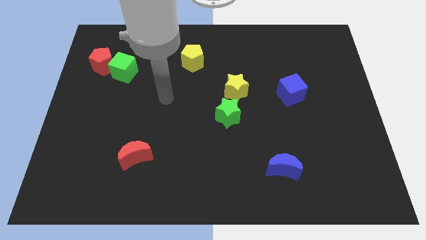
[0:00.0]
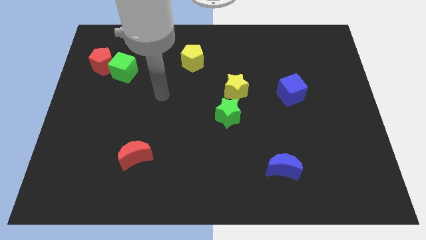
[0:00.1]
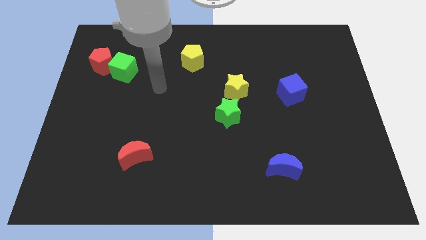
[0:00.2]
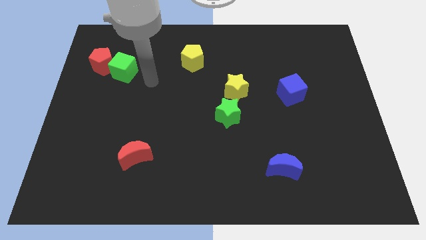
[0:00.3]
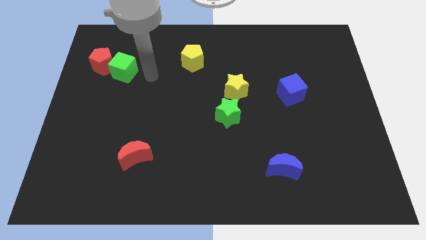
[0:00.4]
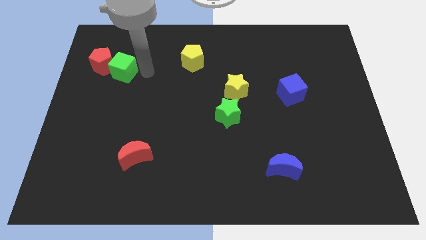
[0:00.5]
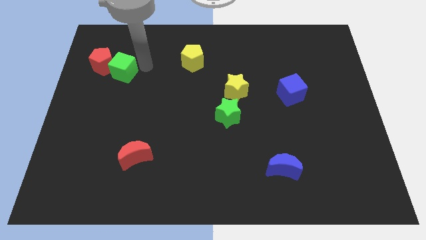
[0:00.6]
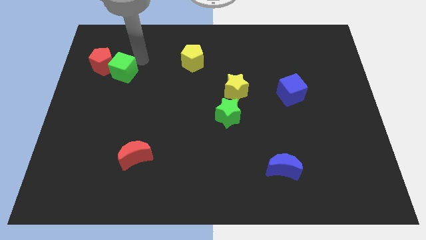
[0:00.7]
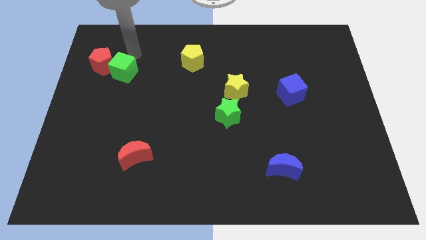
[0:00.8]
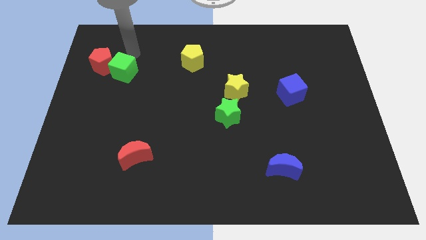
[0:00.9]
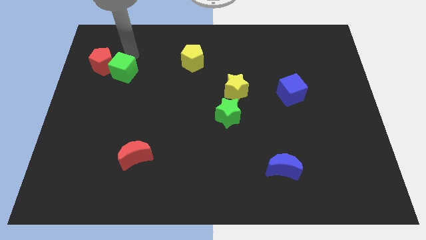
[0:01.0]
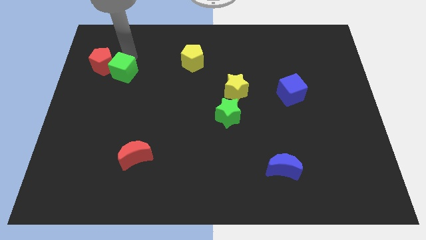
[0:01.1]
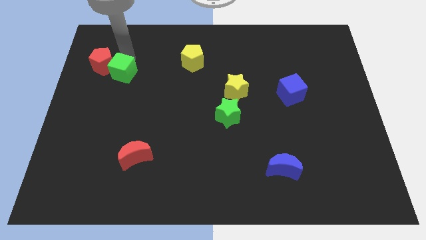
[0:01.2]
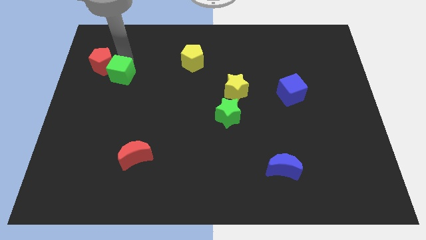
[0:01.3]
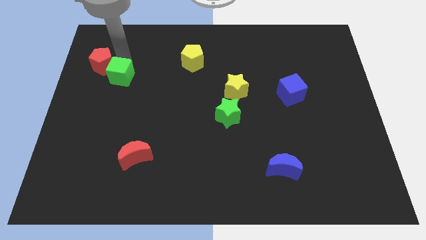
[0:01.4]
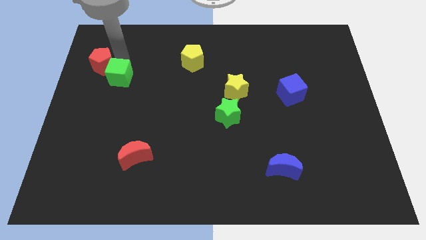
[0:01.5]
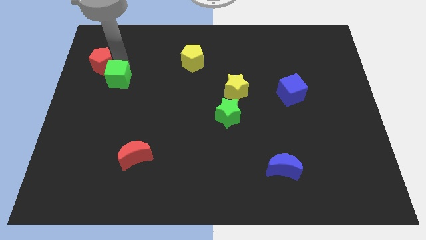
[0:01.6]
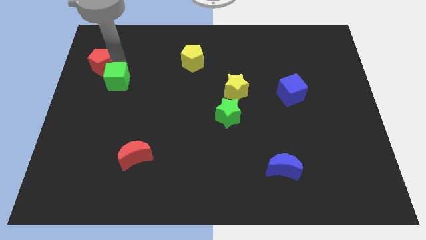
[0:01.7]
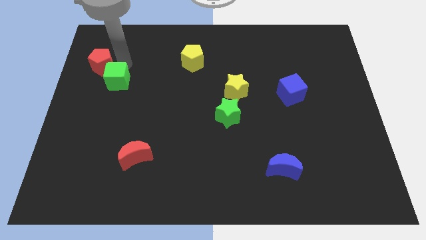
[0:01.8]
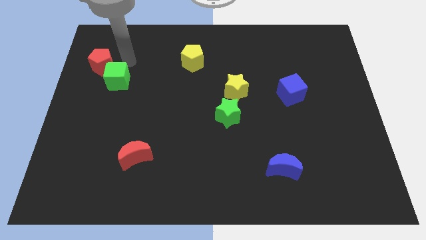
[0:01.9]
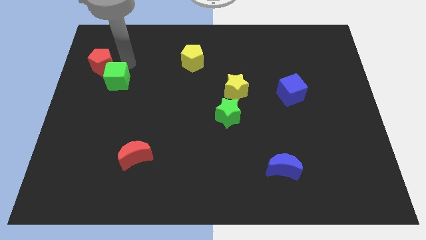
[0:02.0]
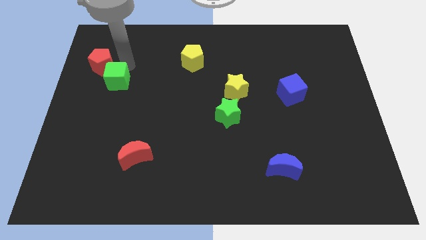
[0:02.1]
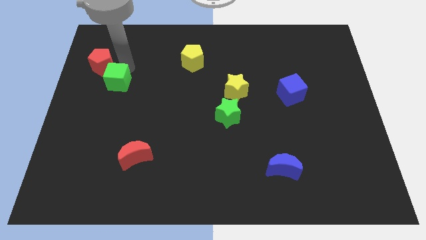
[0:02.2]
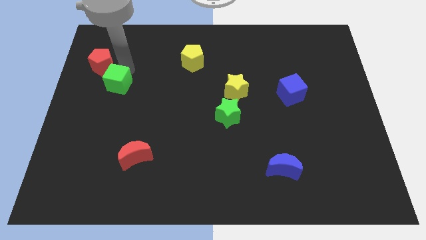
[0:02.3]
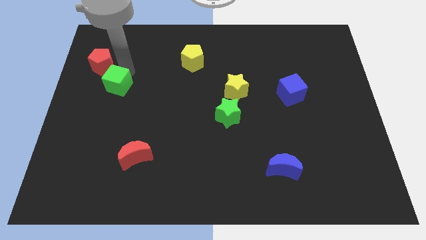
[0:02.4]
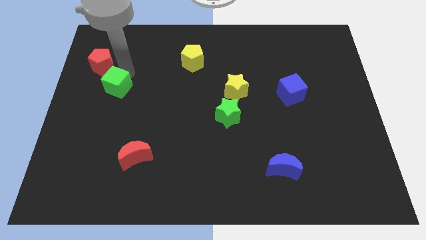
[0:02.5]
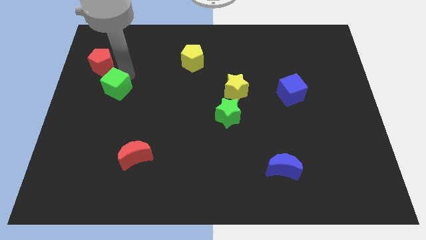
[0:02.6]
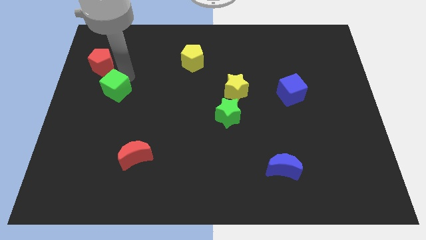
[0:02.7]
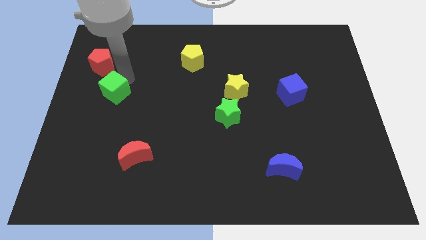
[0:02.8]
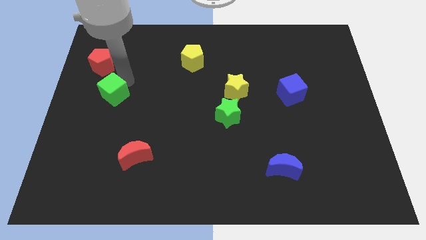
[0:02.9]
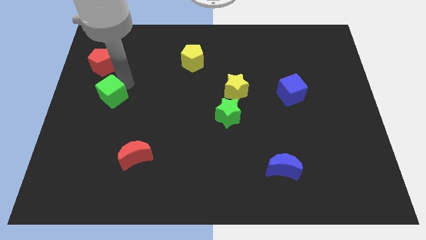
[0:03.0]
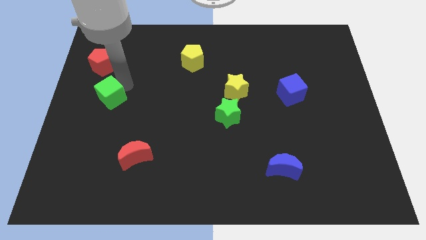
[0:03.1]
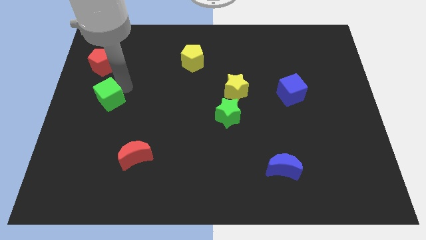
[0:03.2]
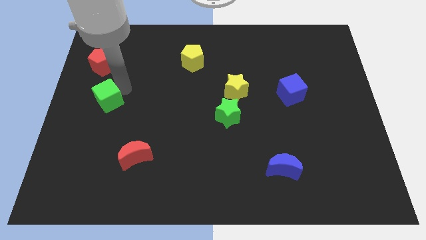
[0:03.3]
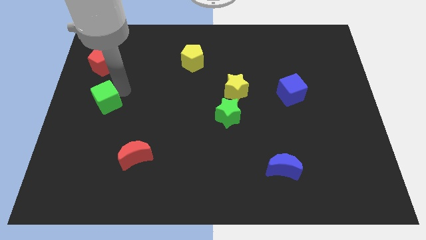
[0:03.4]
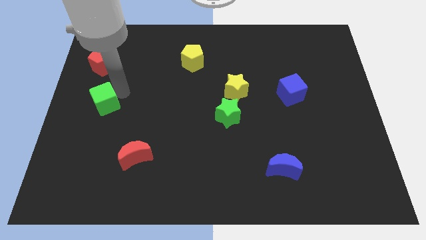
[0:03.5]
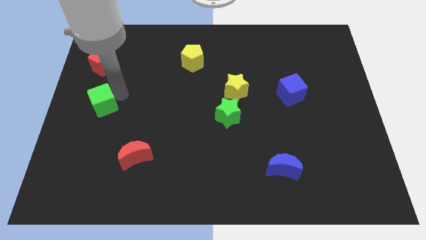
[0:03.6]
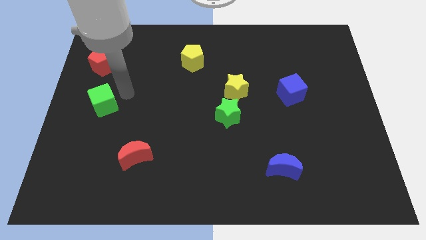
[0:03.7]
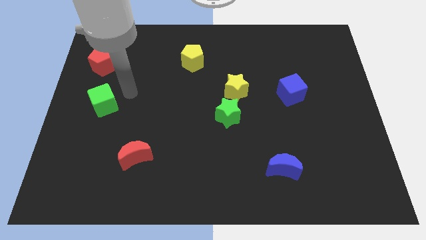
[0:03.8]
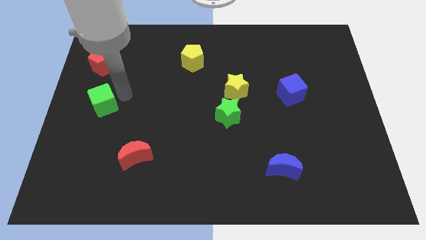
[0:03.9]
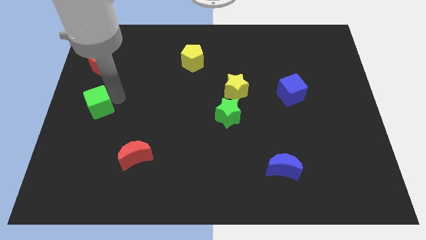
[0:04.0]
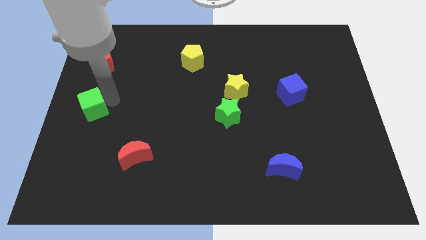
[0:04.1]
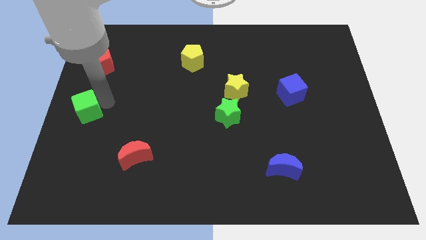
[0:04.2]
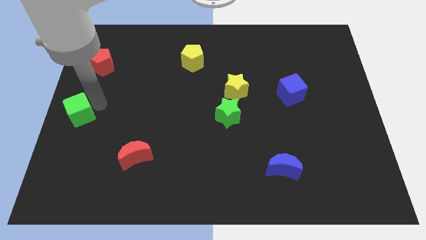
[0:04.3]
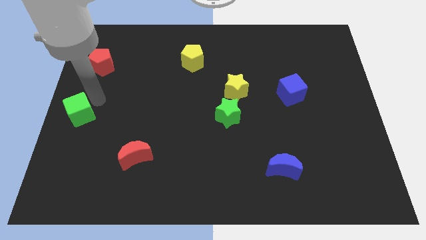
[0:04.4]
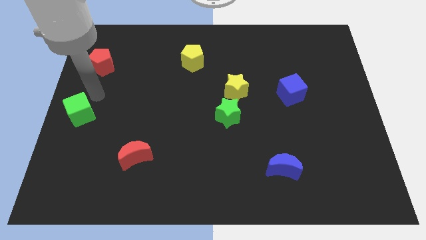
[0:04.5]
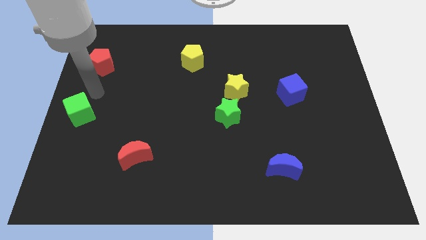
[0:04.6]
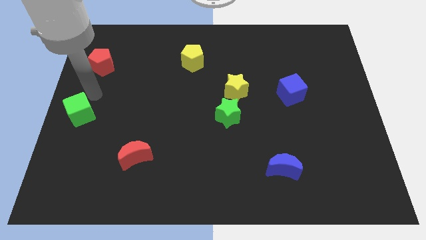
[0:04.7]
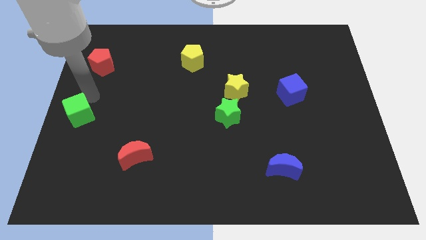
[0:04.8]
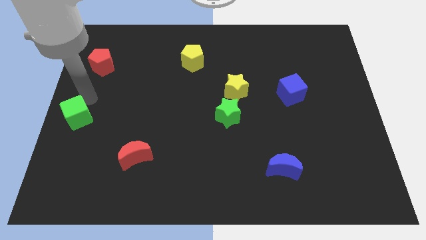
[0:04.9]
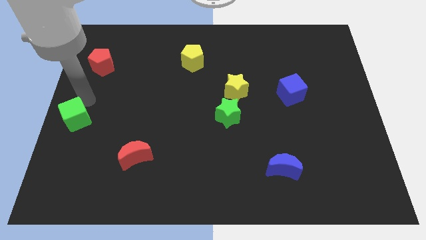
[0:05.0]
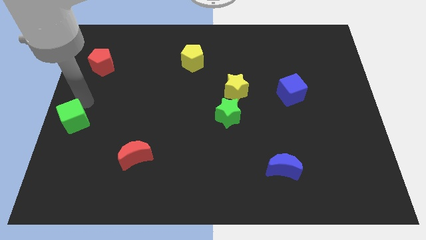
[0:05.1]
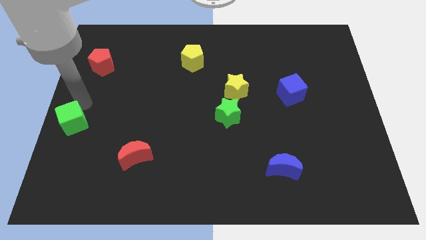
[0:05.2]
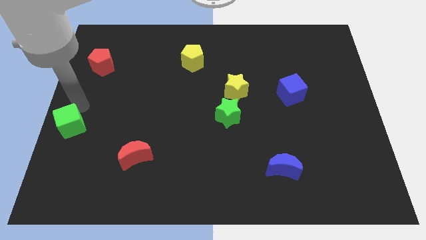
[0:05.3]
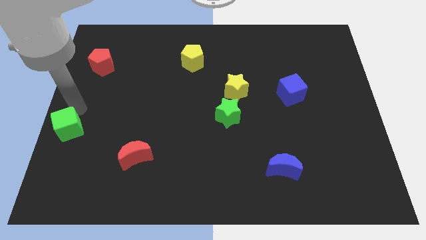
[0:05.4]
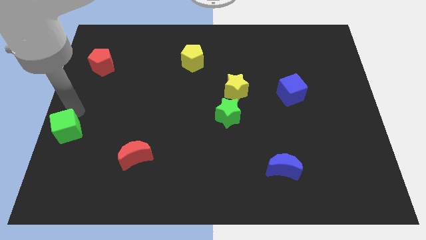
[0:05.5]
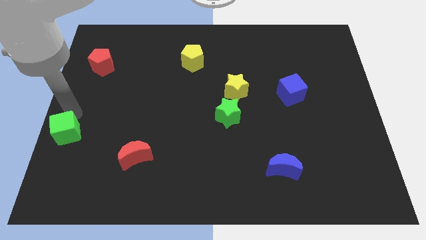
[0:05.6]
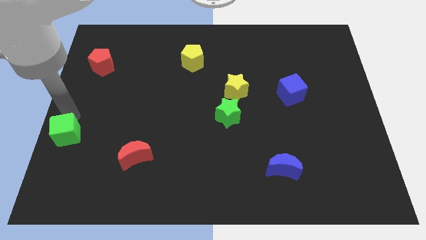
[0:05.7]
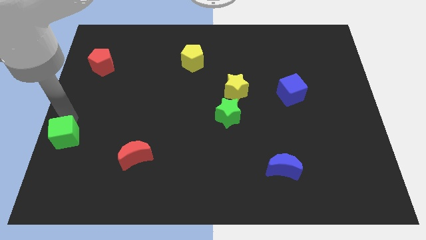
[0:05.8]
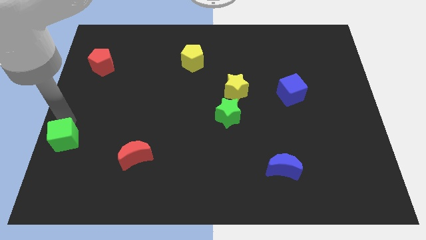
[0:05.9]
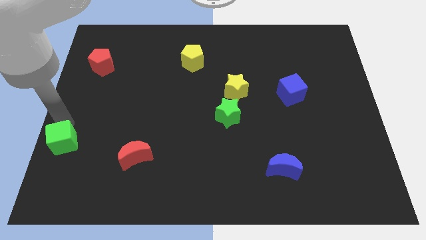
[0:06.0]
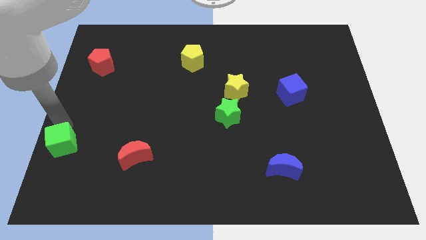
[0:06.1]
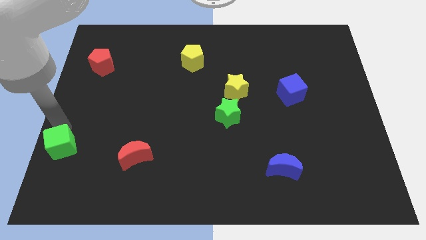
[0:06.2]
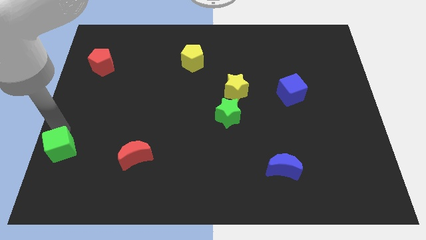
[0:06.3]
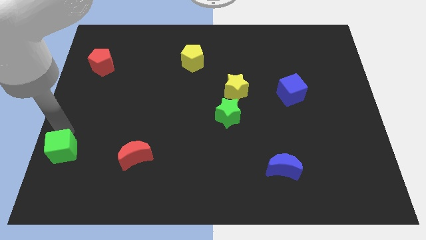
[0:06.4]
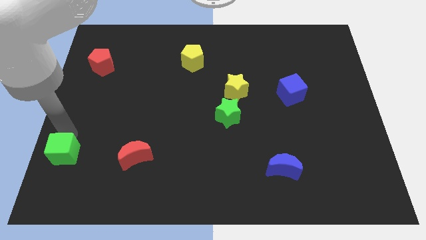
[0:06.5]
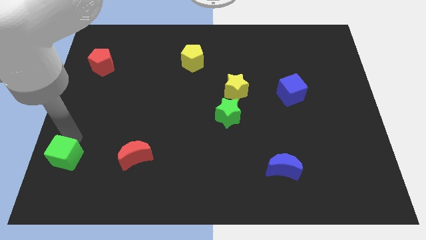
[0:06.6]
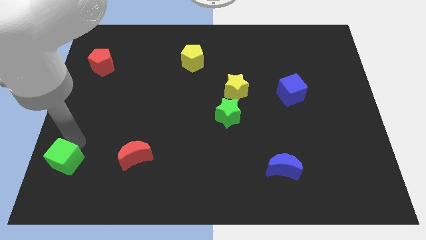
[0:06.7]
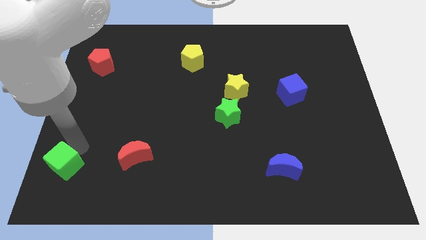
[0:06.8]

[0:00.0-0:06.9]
push the green cube to the bottom left corner
